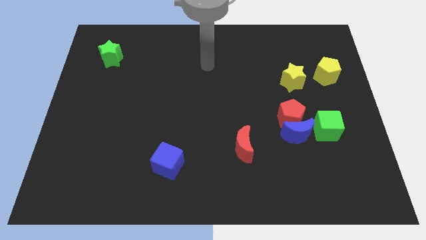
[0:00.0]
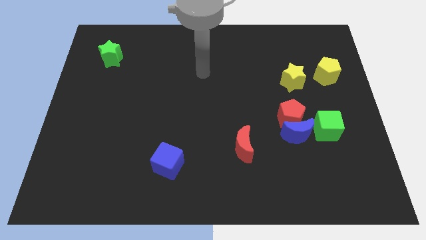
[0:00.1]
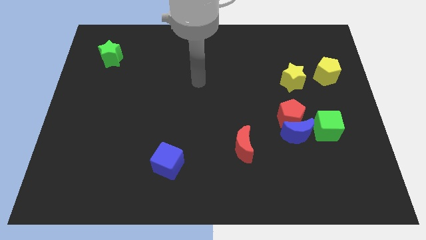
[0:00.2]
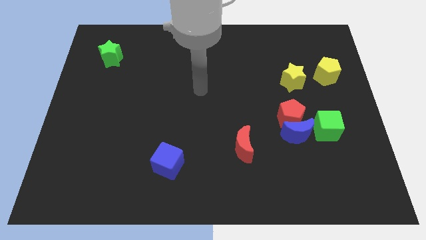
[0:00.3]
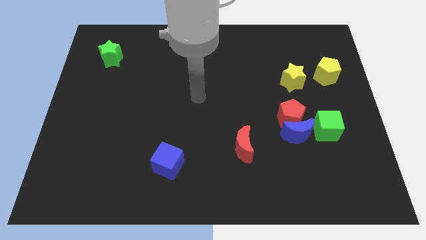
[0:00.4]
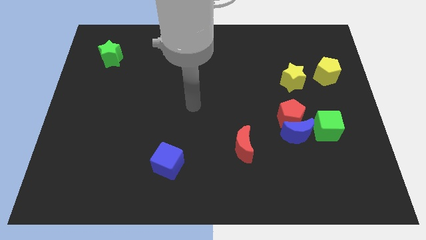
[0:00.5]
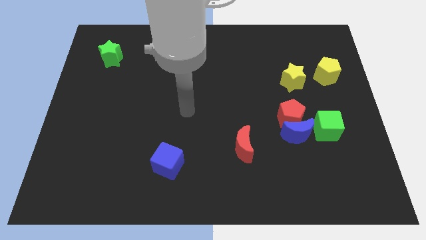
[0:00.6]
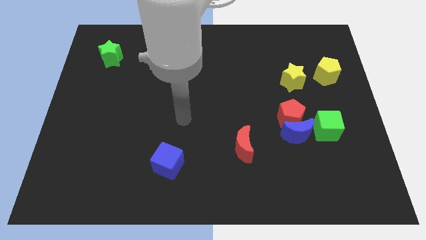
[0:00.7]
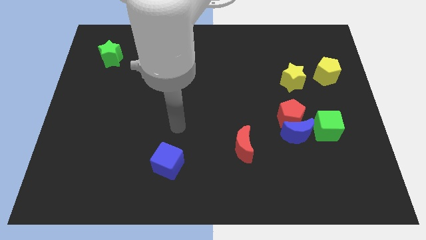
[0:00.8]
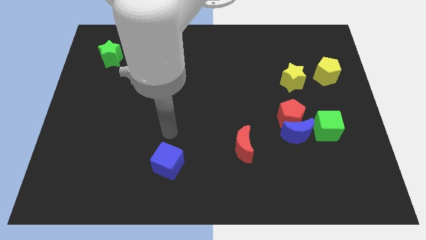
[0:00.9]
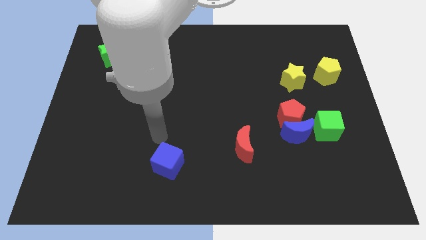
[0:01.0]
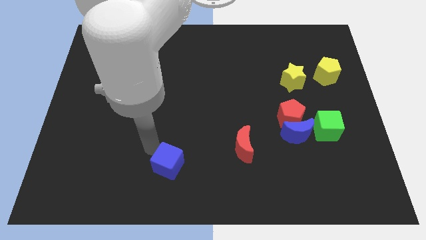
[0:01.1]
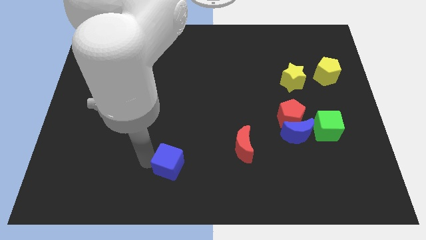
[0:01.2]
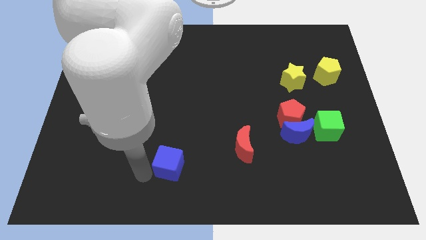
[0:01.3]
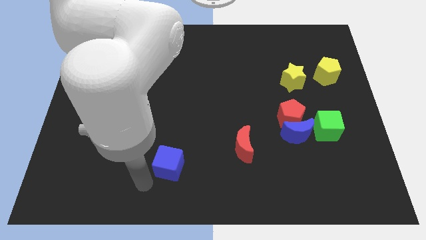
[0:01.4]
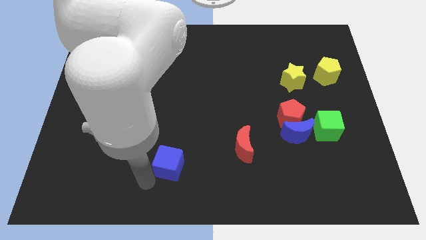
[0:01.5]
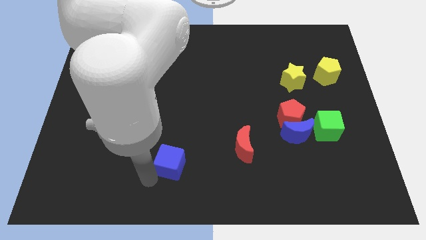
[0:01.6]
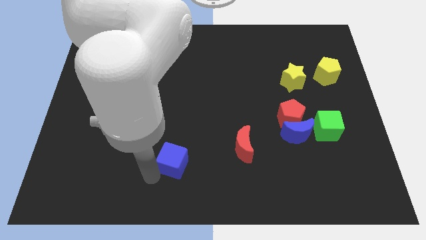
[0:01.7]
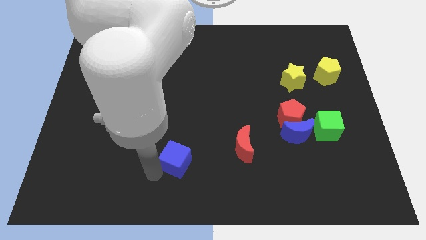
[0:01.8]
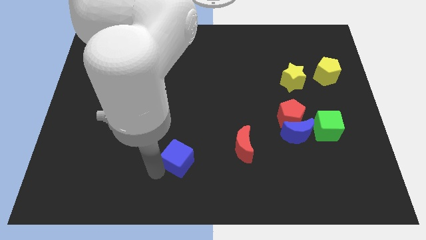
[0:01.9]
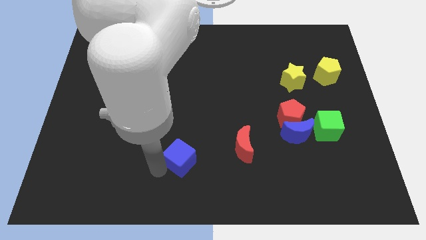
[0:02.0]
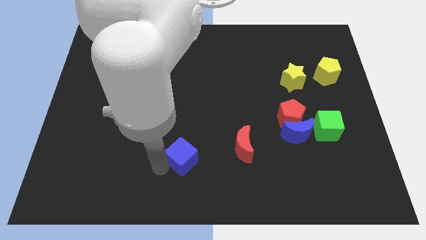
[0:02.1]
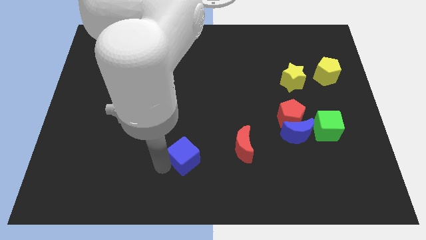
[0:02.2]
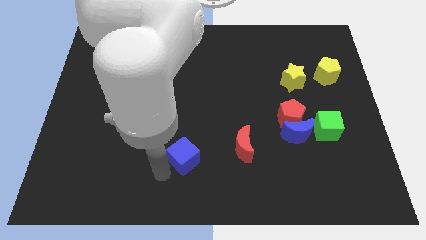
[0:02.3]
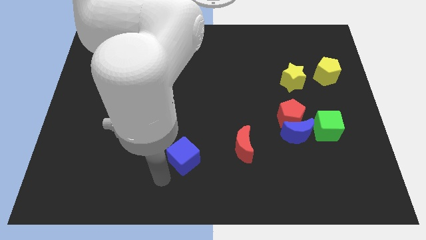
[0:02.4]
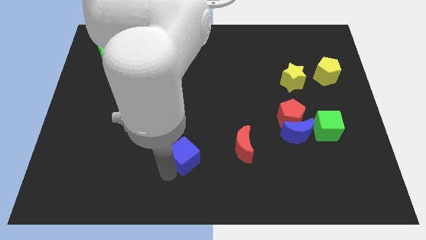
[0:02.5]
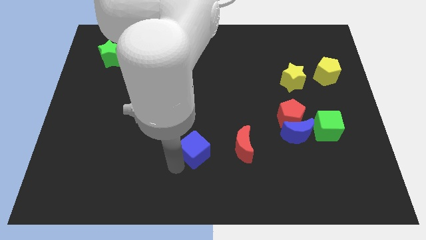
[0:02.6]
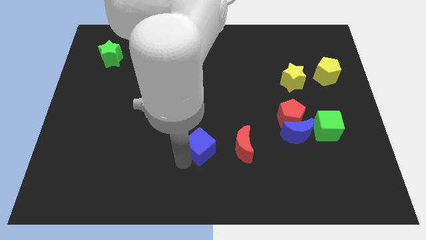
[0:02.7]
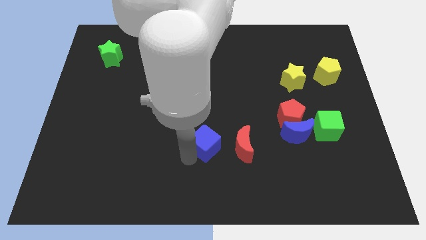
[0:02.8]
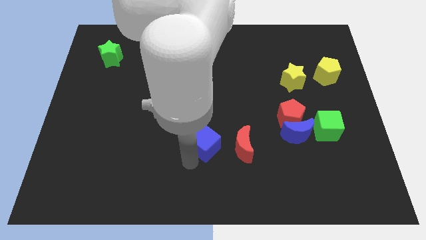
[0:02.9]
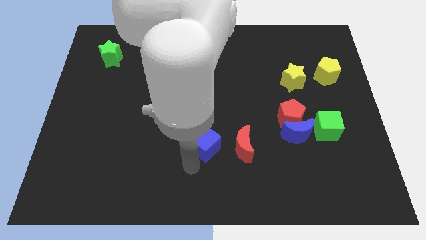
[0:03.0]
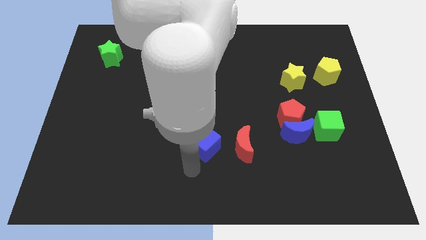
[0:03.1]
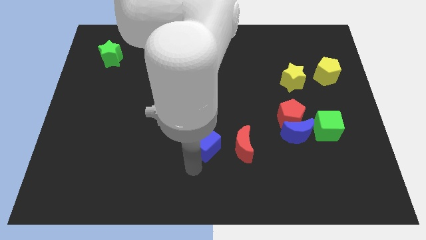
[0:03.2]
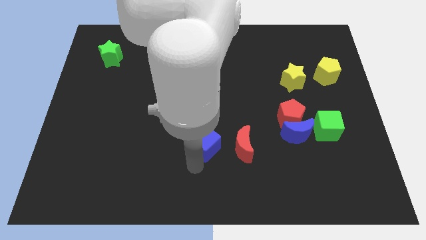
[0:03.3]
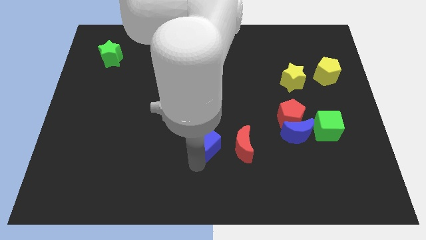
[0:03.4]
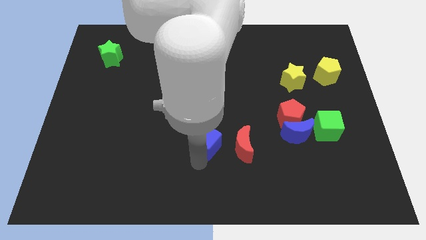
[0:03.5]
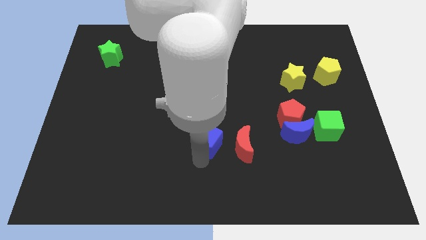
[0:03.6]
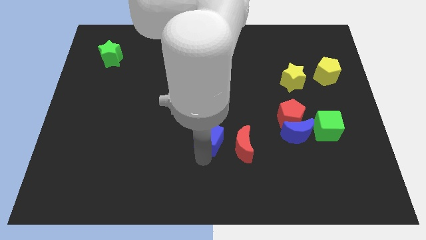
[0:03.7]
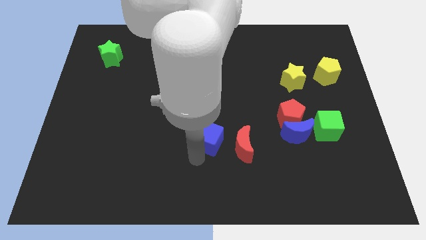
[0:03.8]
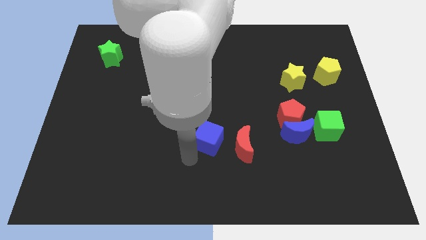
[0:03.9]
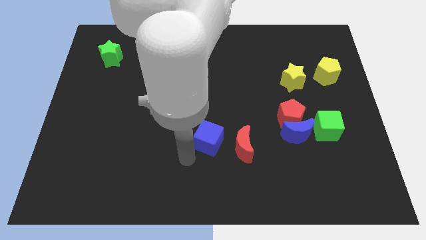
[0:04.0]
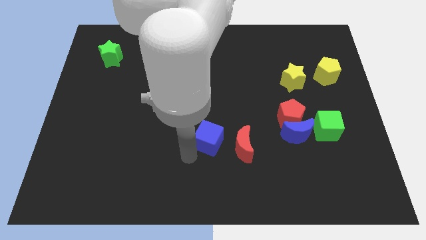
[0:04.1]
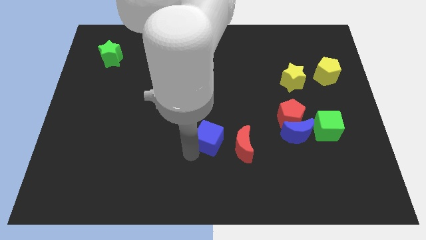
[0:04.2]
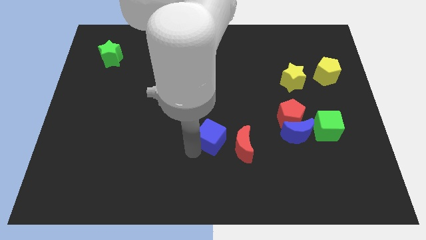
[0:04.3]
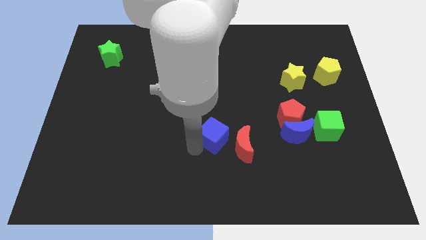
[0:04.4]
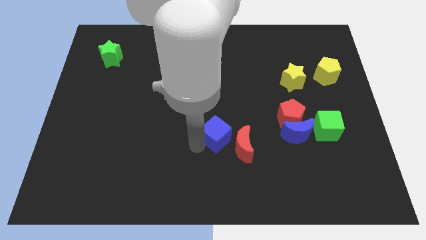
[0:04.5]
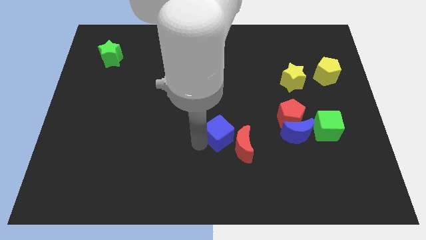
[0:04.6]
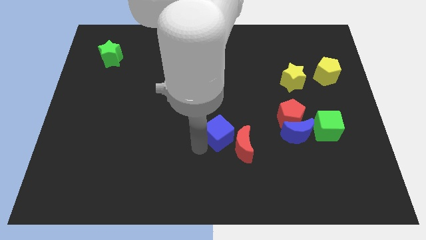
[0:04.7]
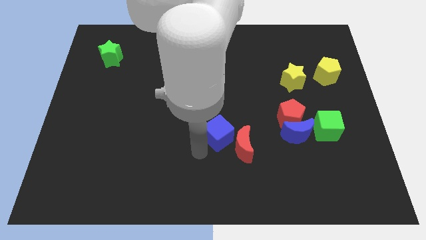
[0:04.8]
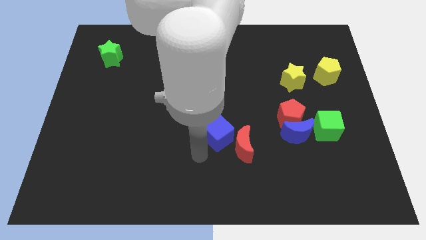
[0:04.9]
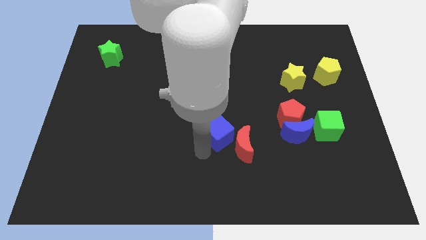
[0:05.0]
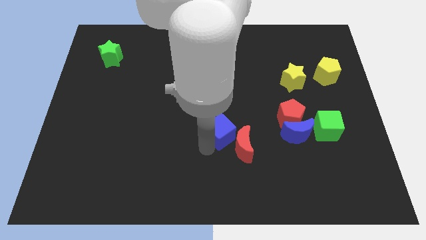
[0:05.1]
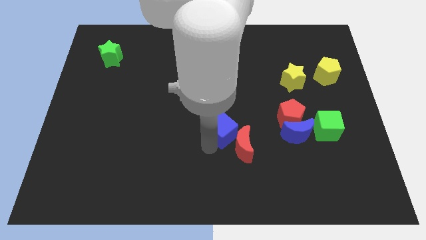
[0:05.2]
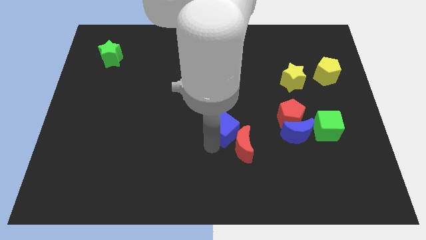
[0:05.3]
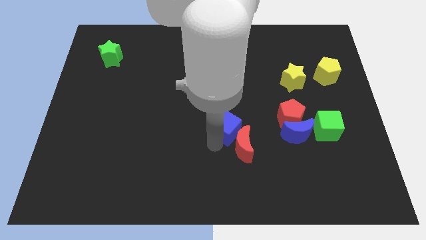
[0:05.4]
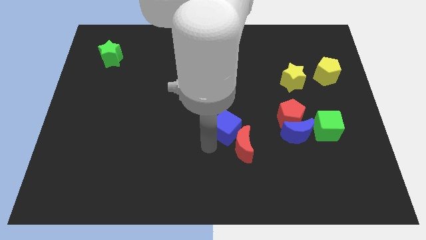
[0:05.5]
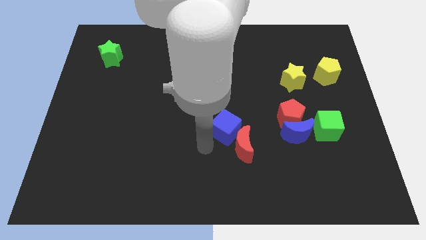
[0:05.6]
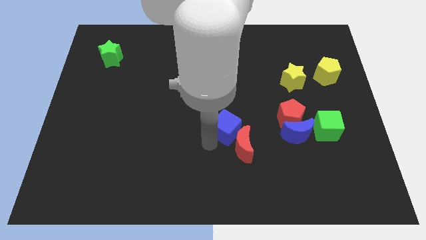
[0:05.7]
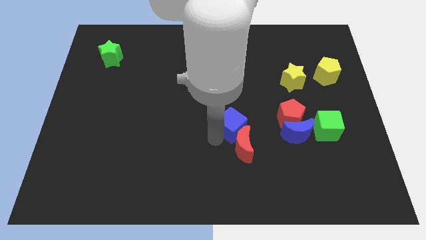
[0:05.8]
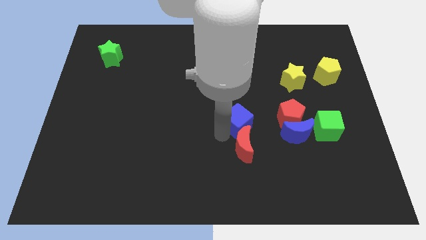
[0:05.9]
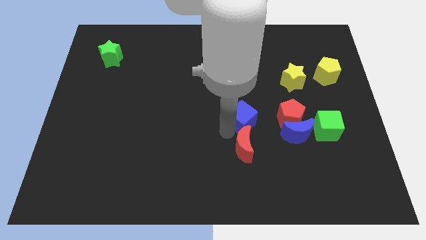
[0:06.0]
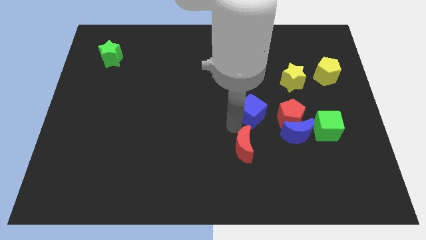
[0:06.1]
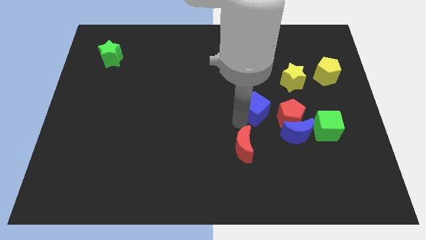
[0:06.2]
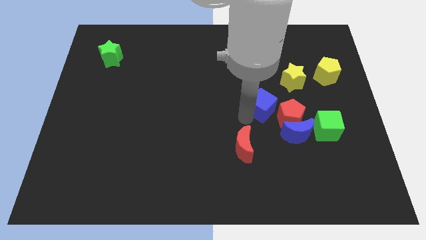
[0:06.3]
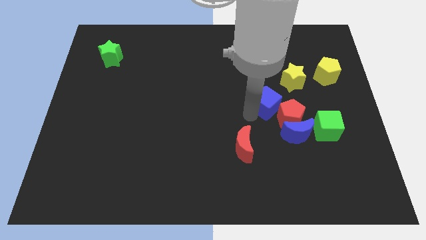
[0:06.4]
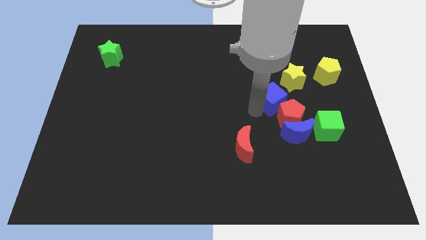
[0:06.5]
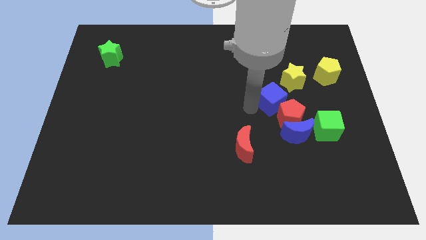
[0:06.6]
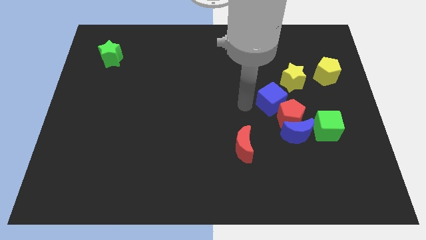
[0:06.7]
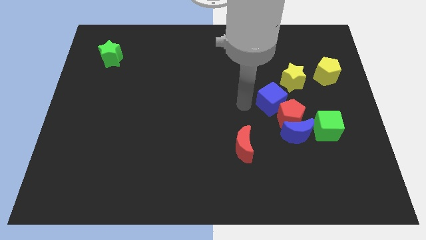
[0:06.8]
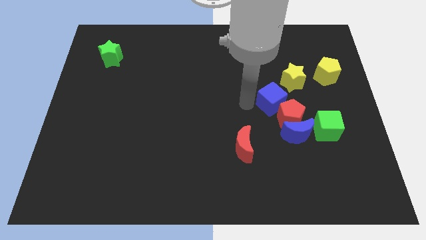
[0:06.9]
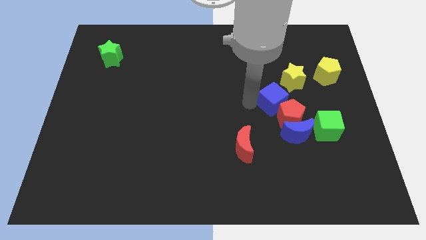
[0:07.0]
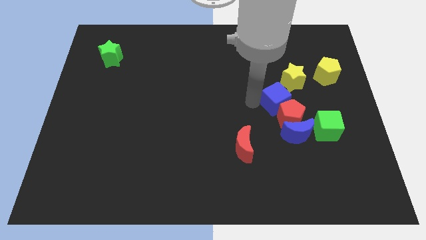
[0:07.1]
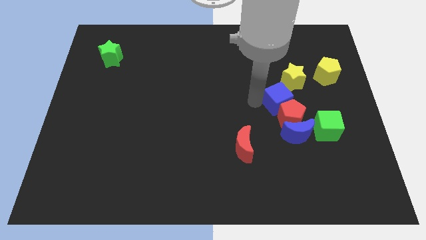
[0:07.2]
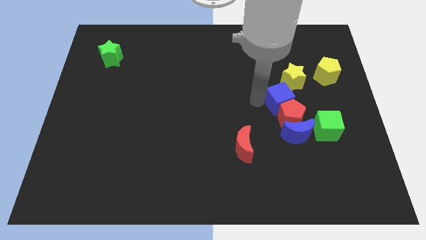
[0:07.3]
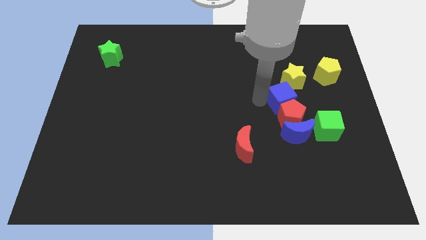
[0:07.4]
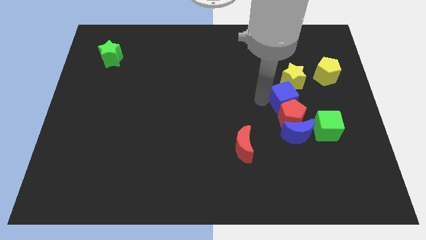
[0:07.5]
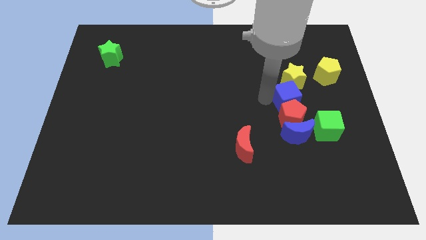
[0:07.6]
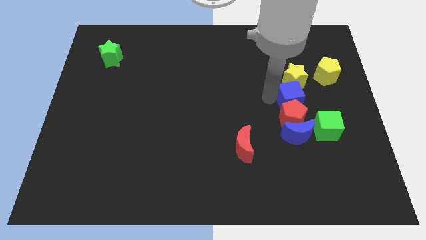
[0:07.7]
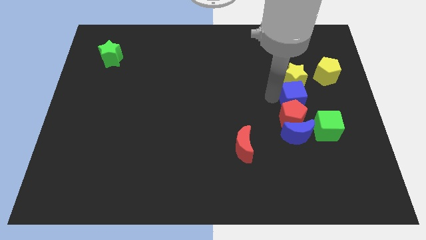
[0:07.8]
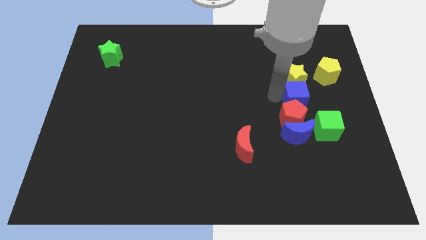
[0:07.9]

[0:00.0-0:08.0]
push the blue cube to the bottom right of the yellow star
